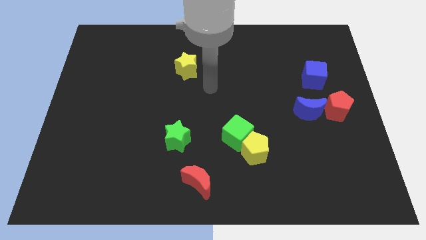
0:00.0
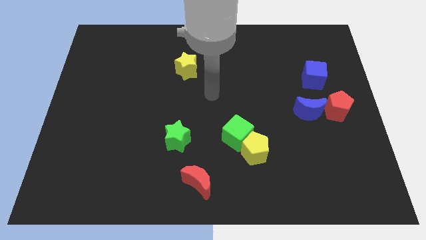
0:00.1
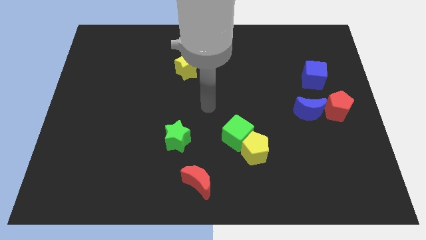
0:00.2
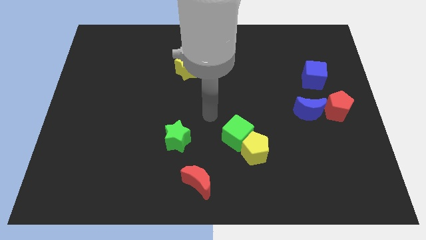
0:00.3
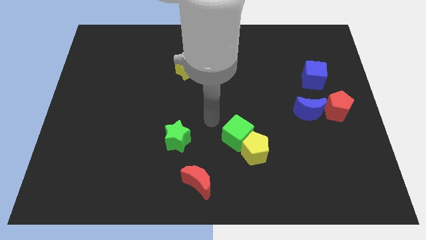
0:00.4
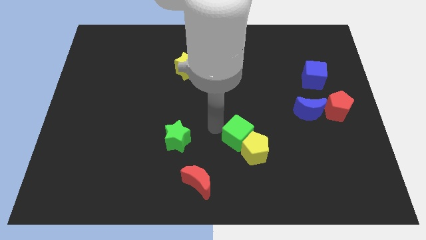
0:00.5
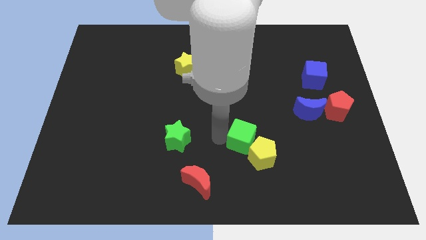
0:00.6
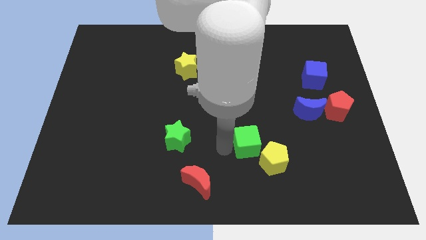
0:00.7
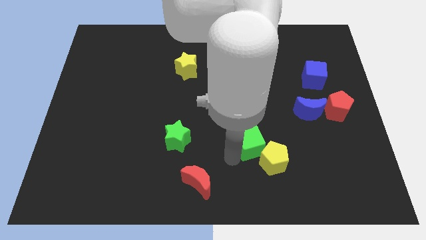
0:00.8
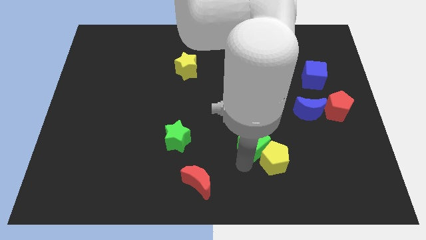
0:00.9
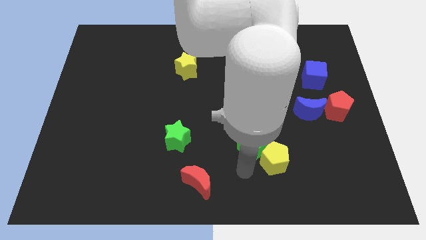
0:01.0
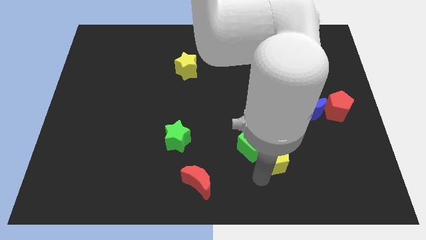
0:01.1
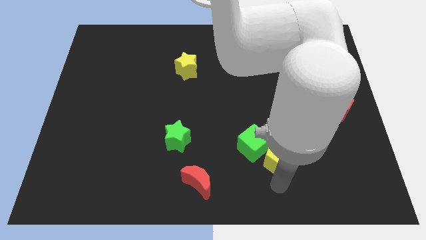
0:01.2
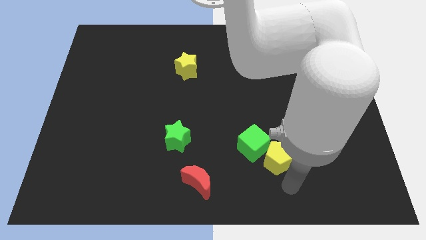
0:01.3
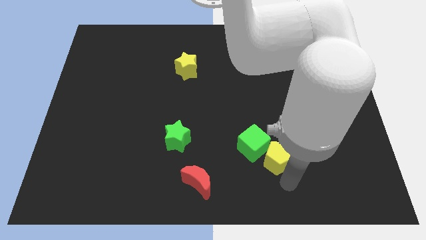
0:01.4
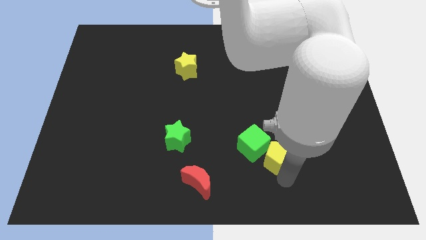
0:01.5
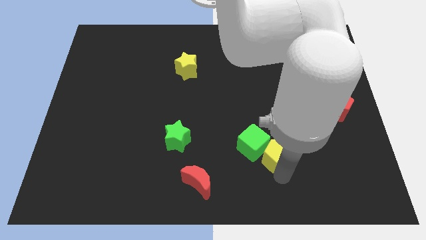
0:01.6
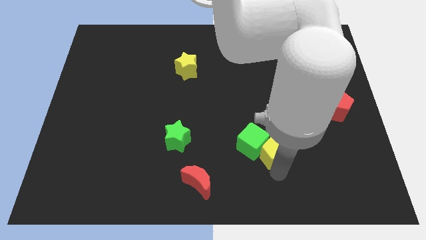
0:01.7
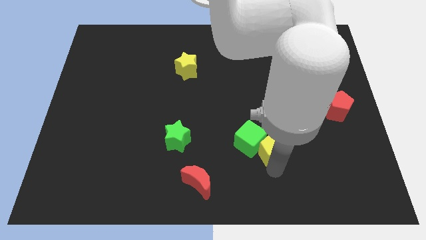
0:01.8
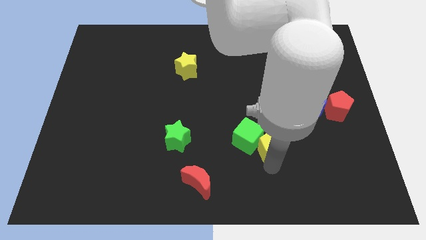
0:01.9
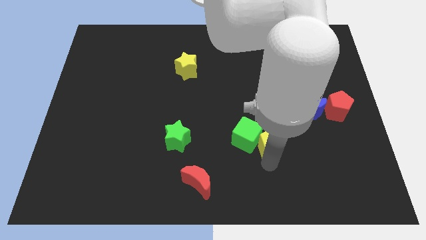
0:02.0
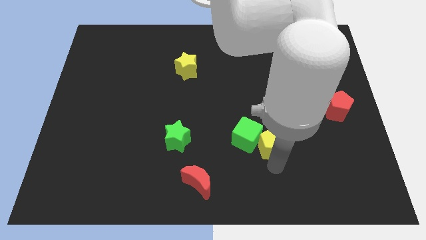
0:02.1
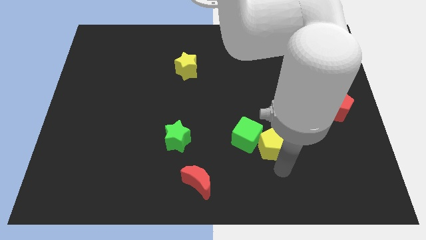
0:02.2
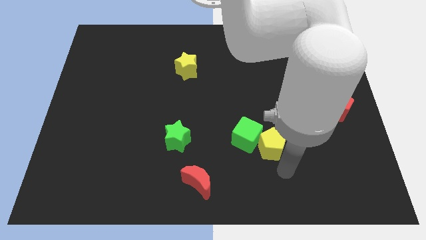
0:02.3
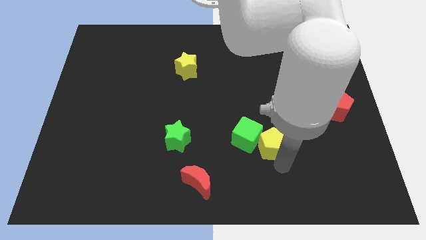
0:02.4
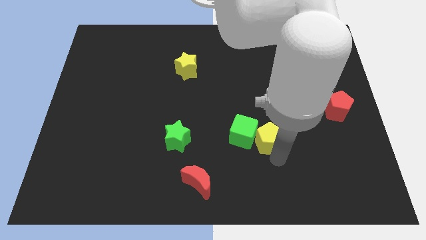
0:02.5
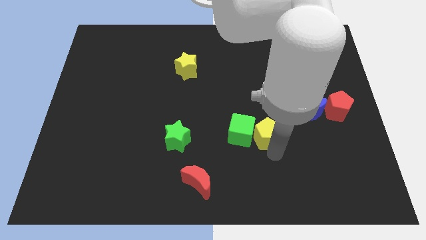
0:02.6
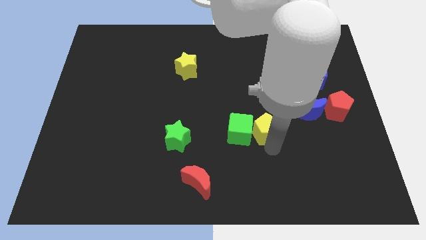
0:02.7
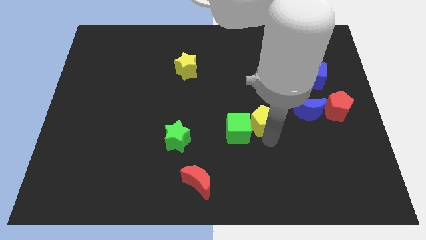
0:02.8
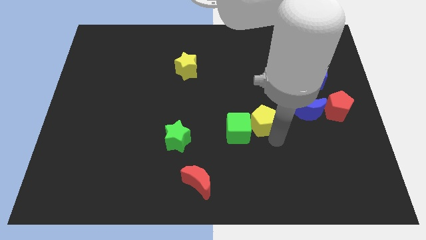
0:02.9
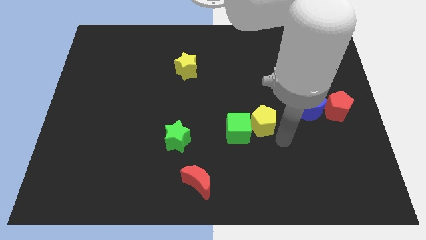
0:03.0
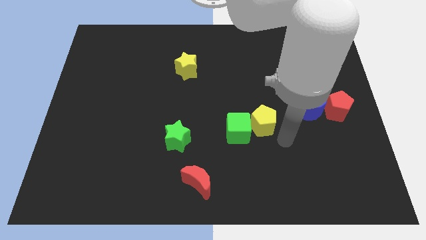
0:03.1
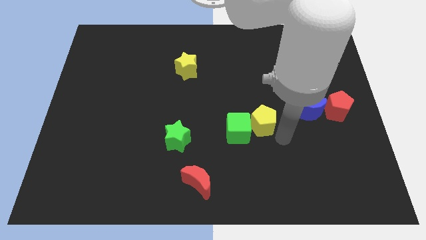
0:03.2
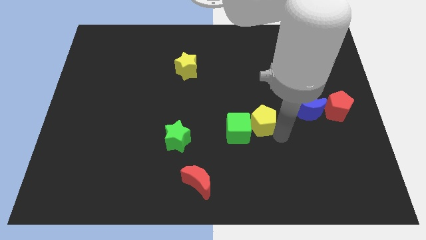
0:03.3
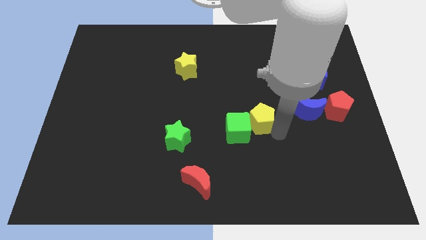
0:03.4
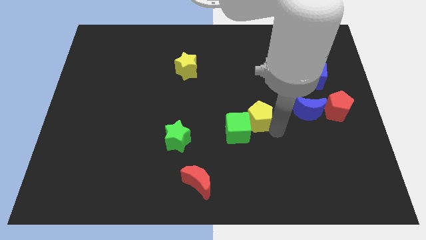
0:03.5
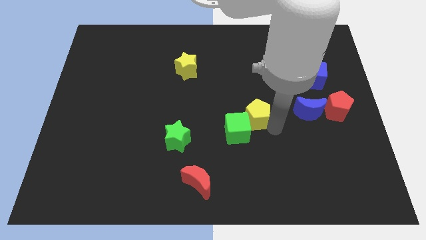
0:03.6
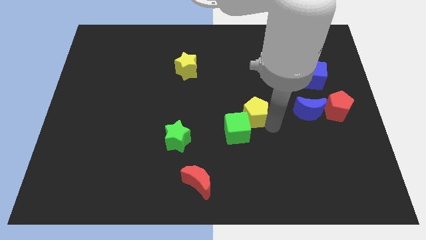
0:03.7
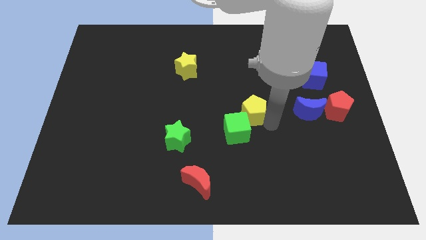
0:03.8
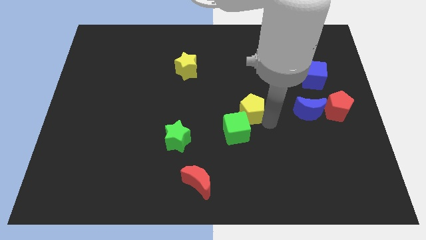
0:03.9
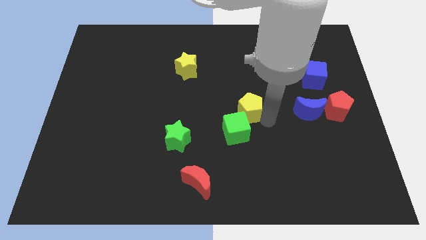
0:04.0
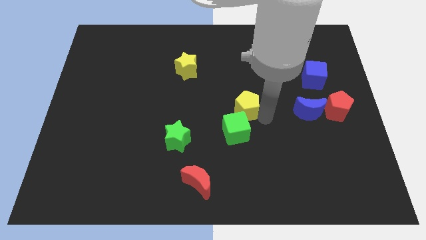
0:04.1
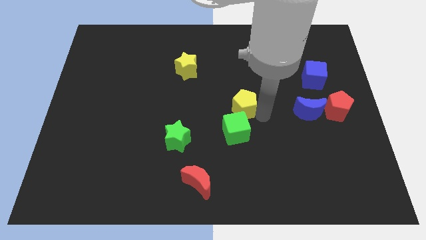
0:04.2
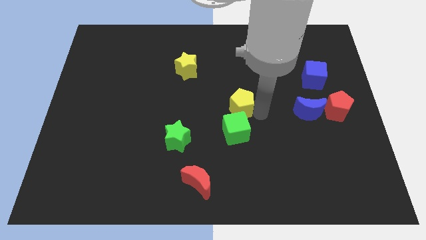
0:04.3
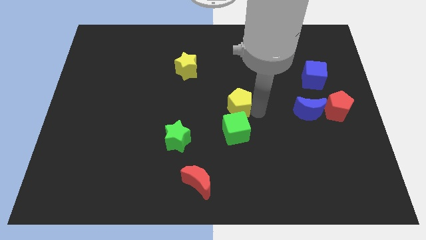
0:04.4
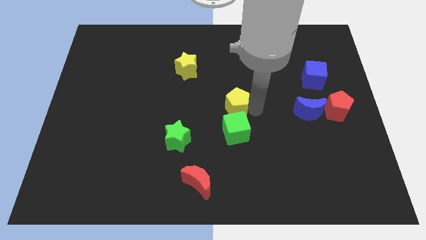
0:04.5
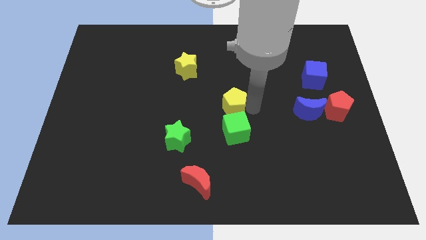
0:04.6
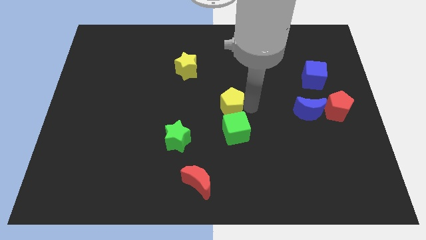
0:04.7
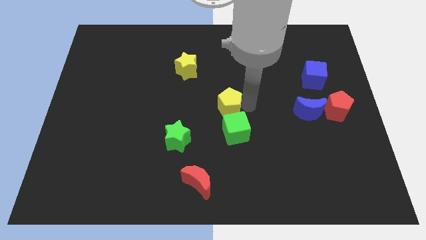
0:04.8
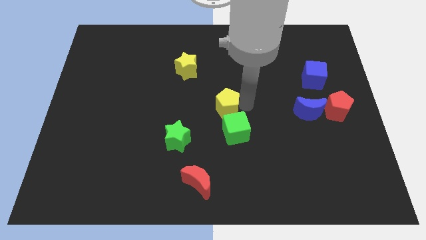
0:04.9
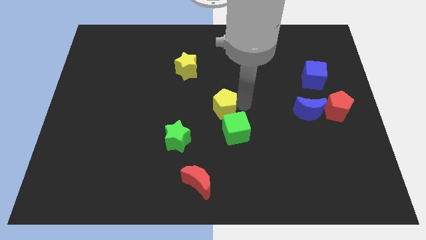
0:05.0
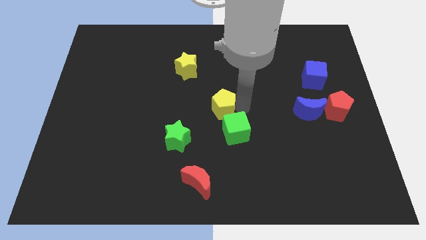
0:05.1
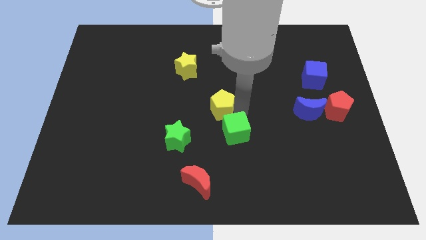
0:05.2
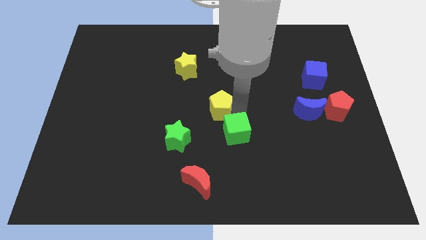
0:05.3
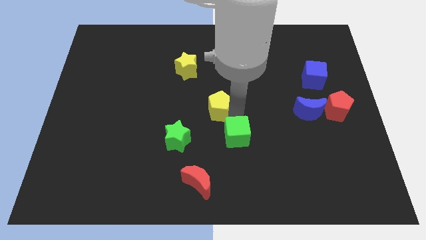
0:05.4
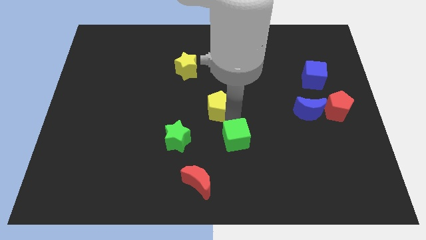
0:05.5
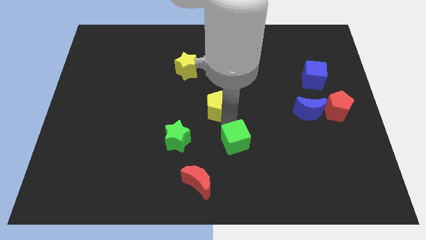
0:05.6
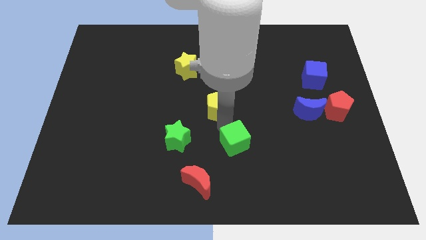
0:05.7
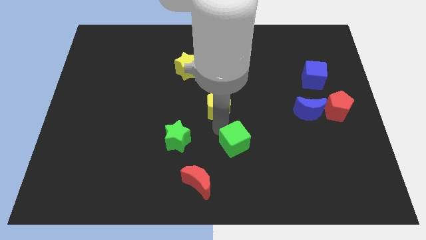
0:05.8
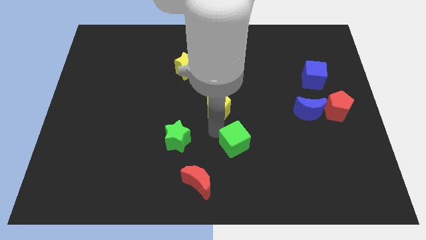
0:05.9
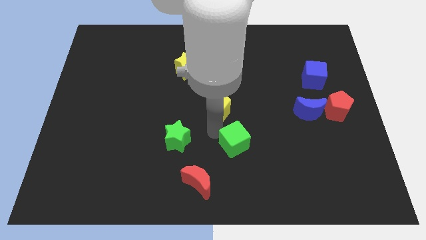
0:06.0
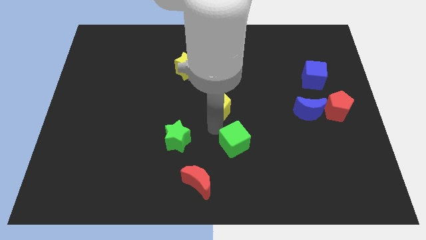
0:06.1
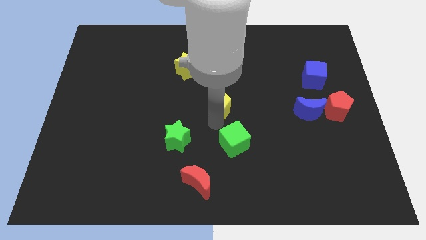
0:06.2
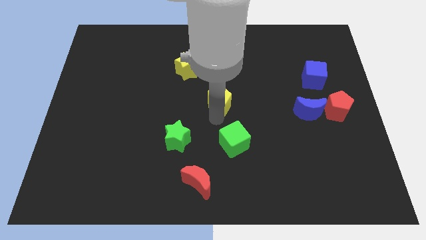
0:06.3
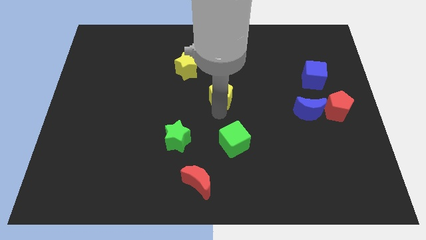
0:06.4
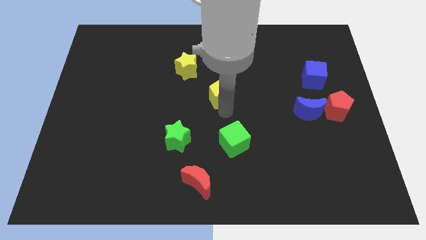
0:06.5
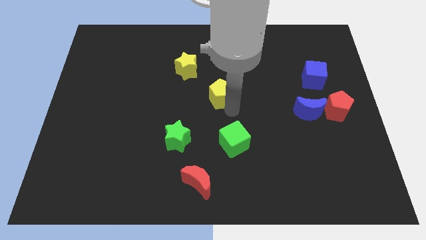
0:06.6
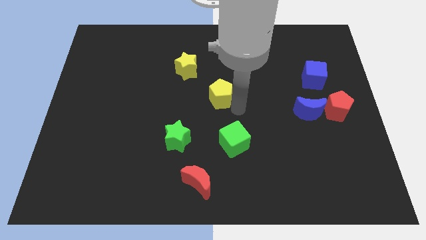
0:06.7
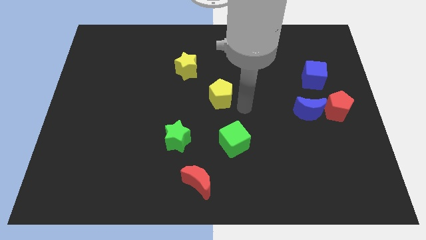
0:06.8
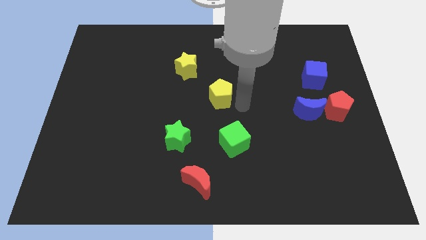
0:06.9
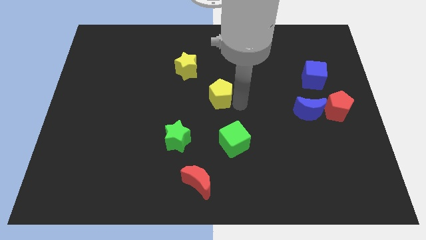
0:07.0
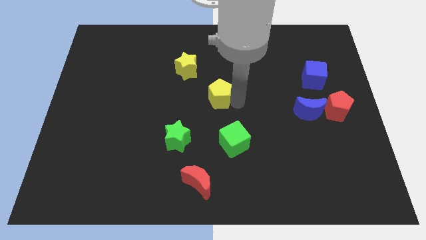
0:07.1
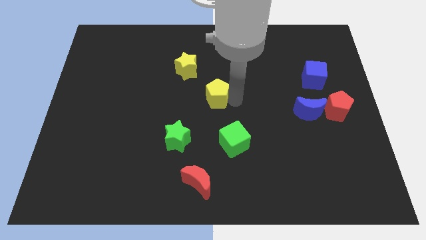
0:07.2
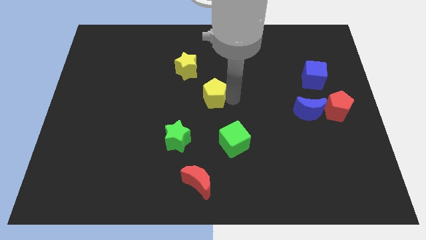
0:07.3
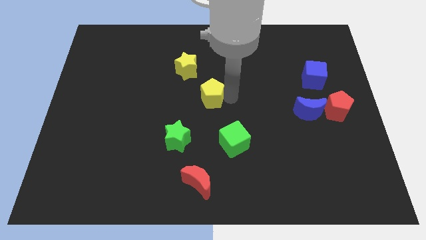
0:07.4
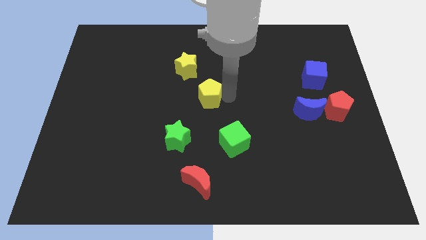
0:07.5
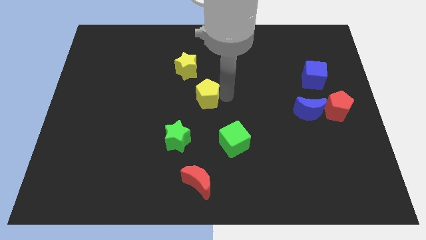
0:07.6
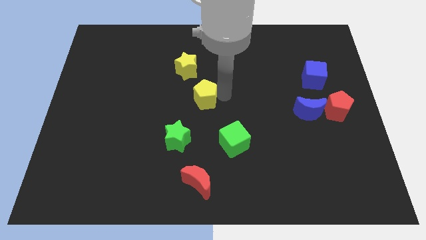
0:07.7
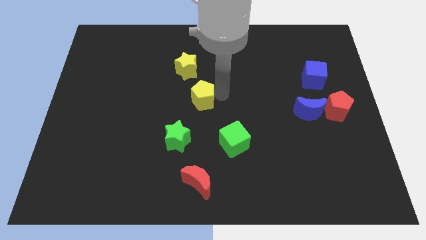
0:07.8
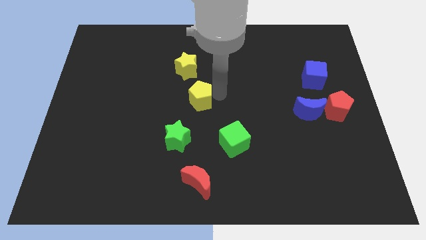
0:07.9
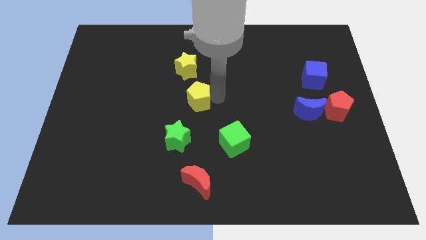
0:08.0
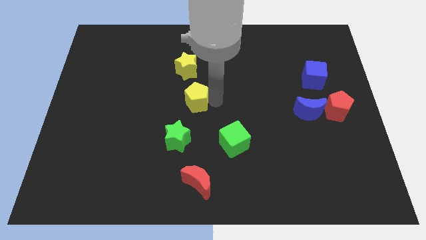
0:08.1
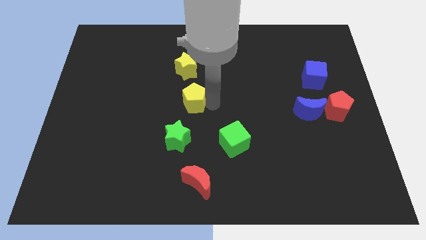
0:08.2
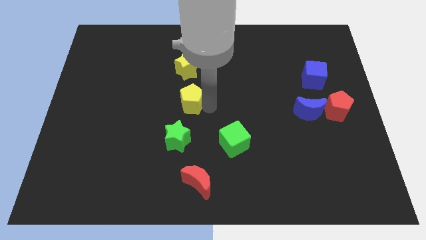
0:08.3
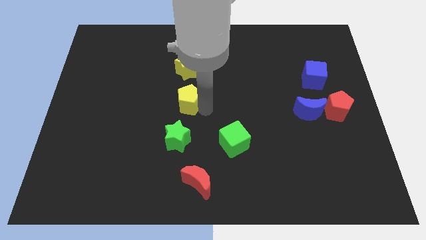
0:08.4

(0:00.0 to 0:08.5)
move the yellow pentagon up and to the left
